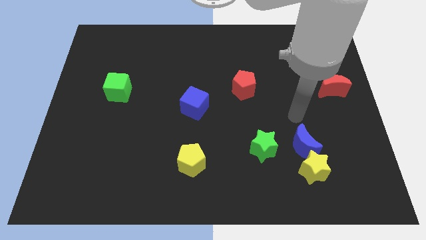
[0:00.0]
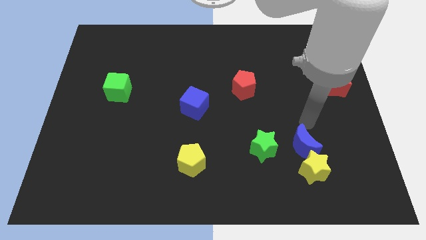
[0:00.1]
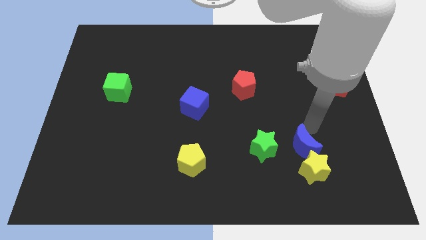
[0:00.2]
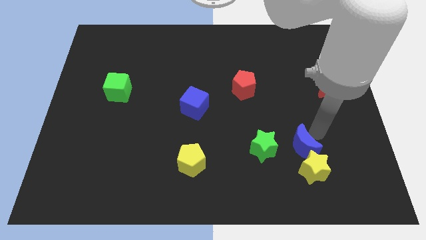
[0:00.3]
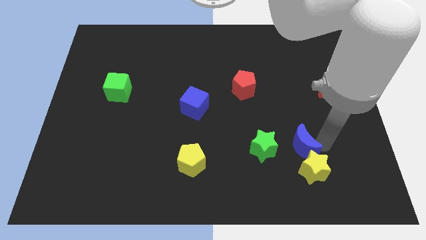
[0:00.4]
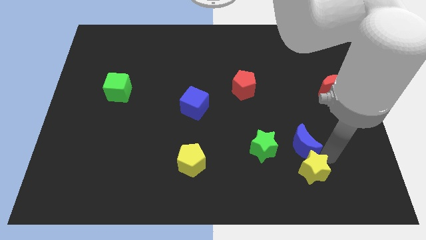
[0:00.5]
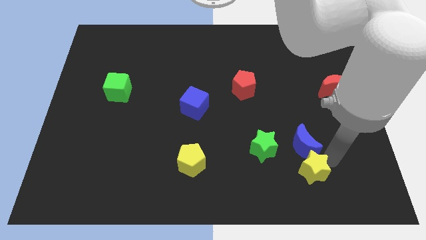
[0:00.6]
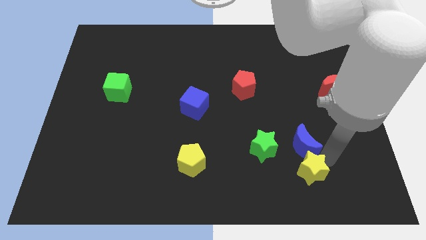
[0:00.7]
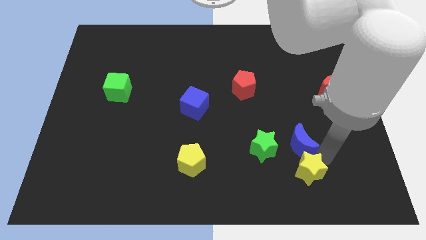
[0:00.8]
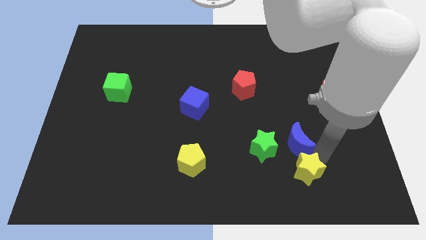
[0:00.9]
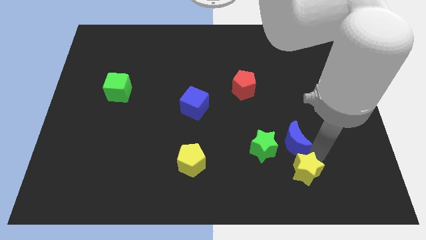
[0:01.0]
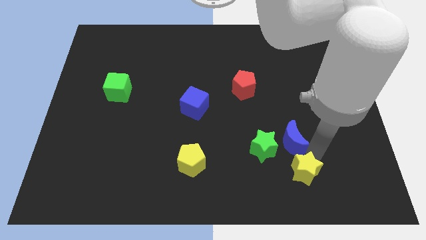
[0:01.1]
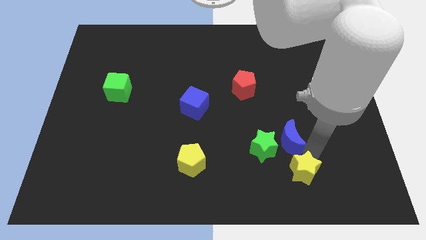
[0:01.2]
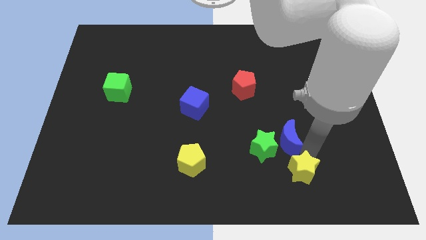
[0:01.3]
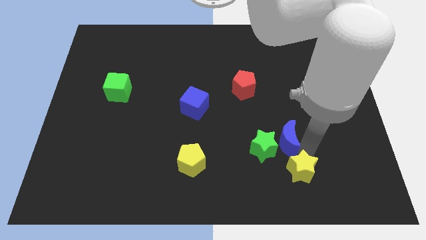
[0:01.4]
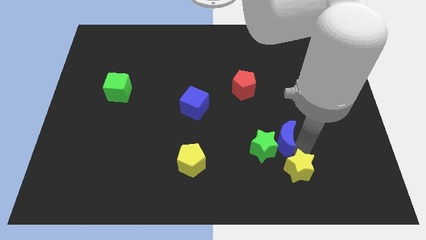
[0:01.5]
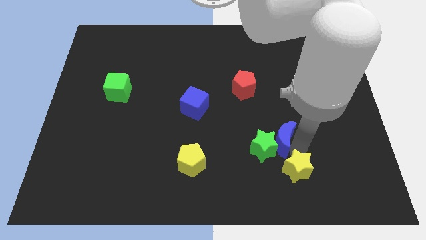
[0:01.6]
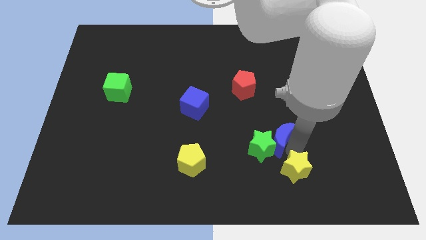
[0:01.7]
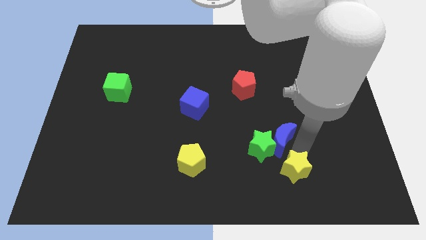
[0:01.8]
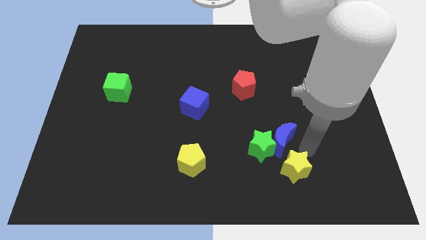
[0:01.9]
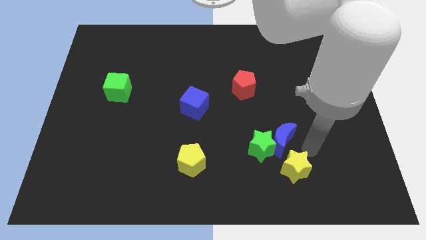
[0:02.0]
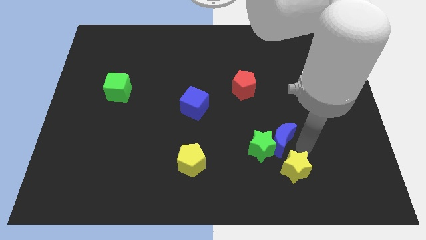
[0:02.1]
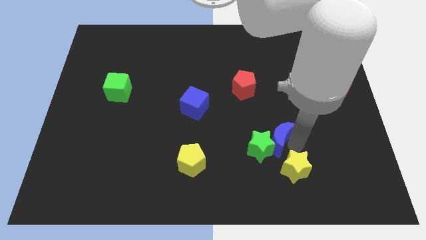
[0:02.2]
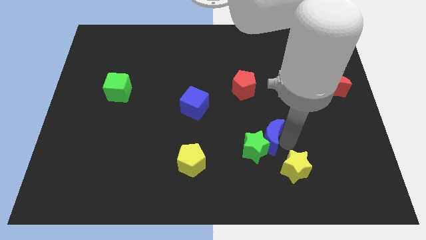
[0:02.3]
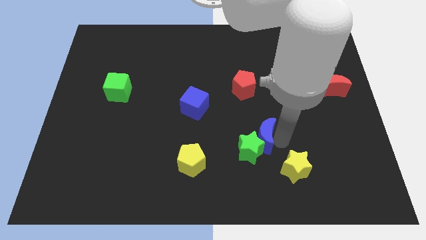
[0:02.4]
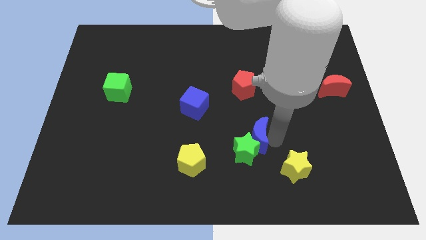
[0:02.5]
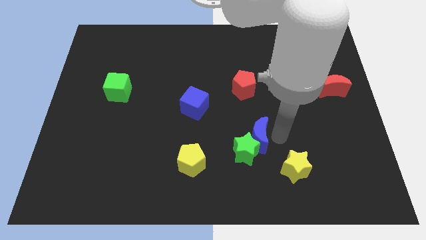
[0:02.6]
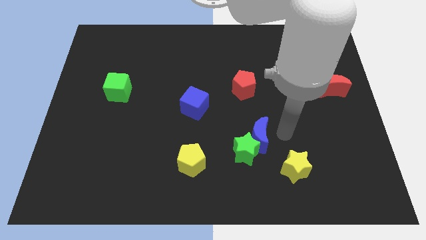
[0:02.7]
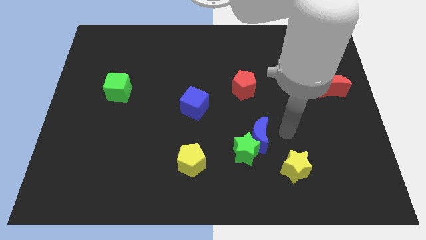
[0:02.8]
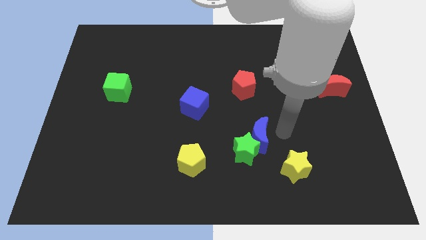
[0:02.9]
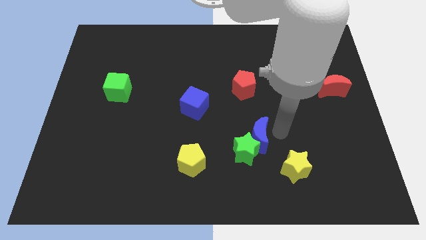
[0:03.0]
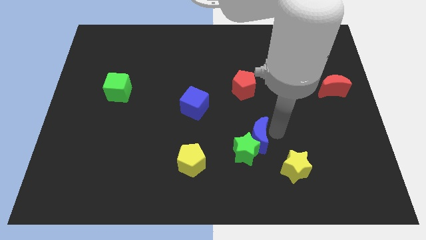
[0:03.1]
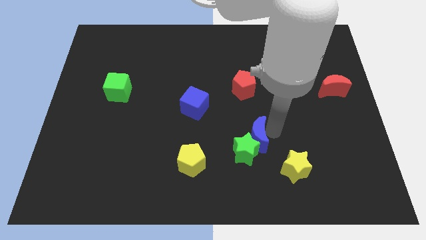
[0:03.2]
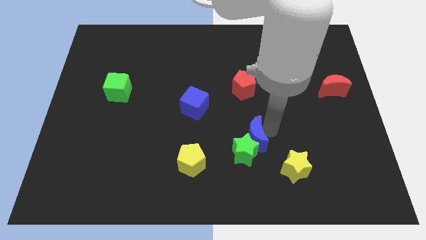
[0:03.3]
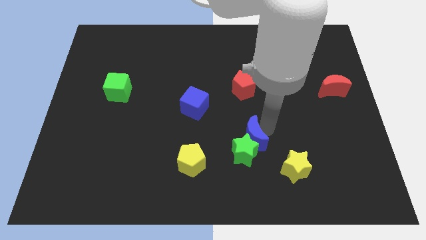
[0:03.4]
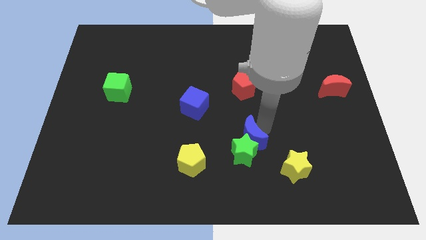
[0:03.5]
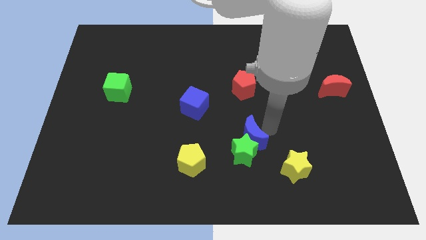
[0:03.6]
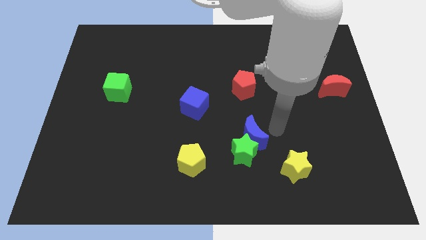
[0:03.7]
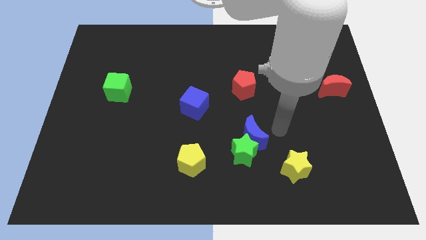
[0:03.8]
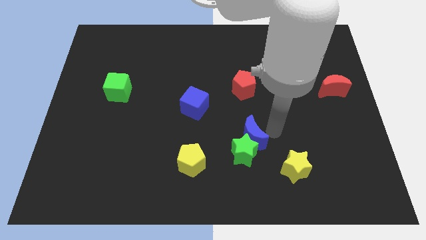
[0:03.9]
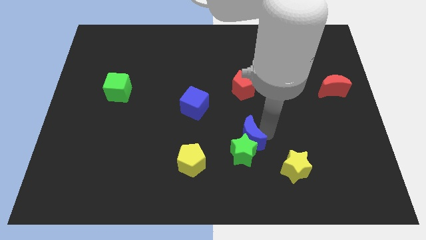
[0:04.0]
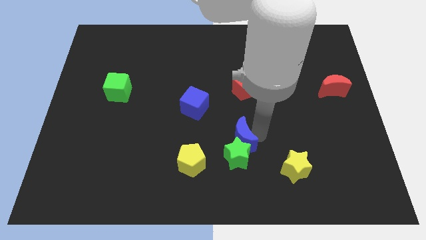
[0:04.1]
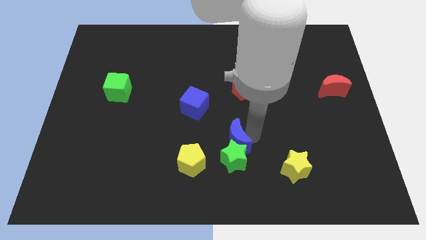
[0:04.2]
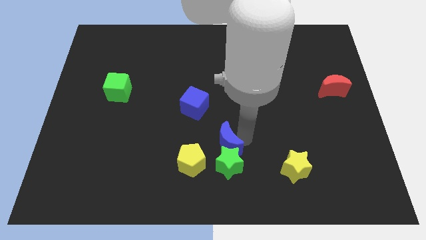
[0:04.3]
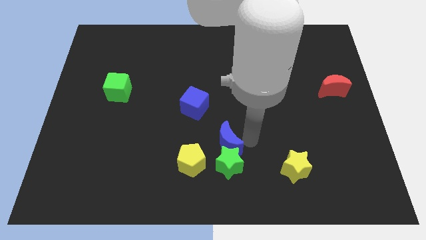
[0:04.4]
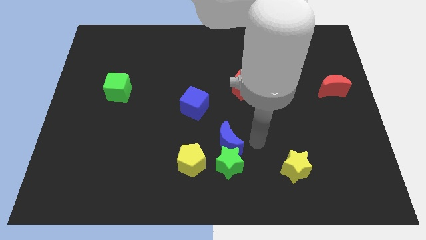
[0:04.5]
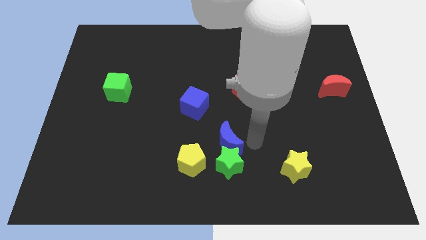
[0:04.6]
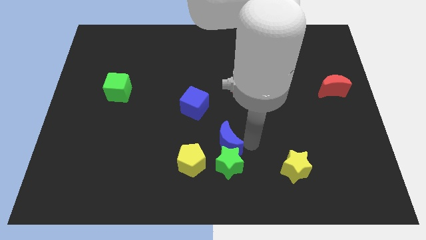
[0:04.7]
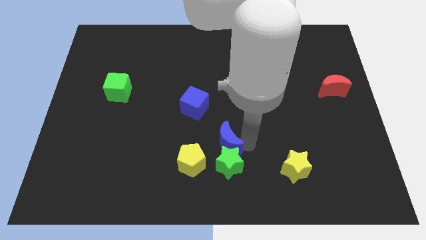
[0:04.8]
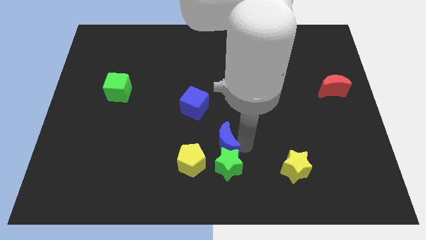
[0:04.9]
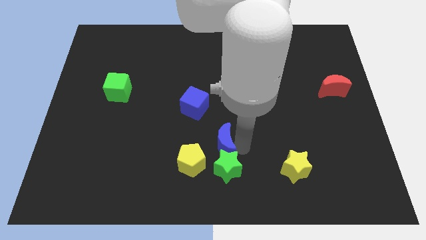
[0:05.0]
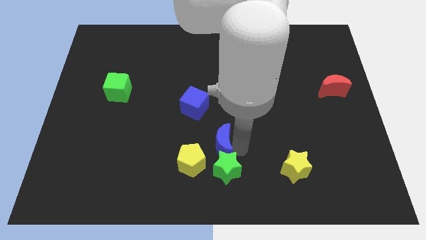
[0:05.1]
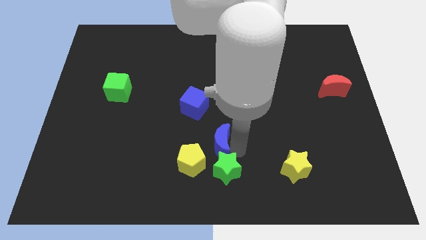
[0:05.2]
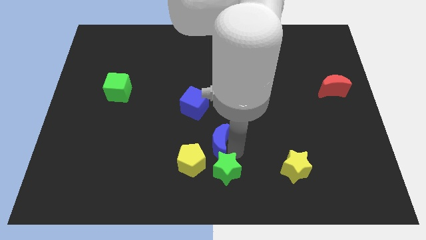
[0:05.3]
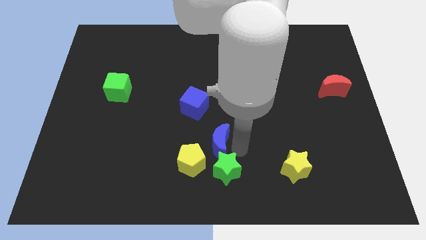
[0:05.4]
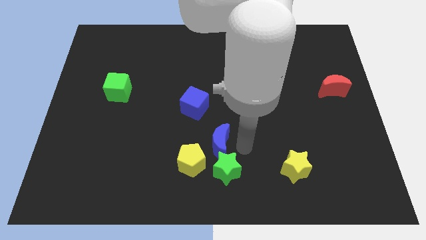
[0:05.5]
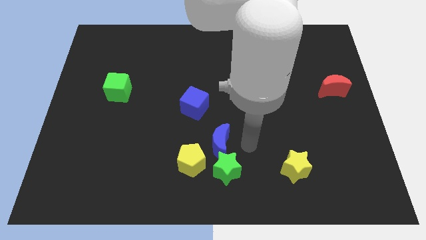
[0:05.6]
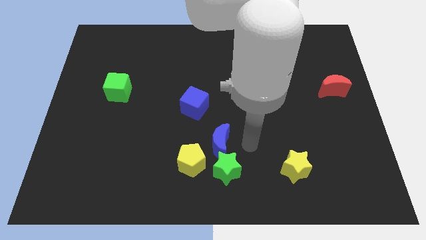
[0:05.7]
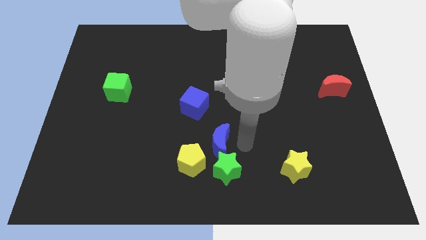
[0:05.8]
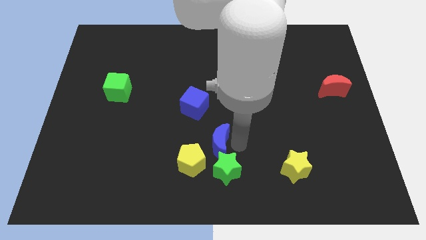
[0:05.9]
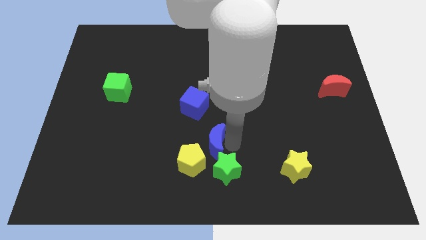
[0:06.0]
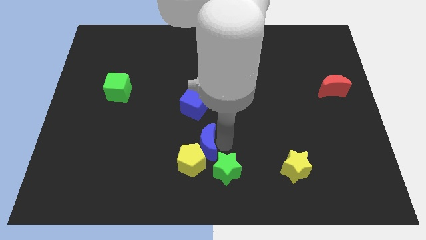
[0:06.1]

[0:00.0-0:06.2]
slide the blue moon left

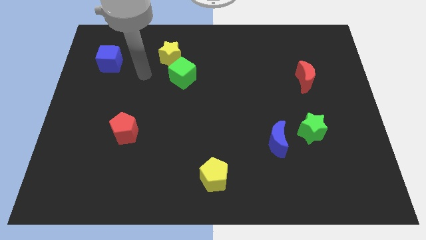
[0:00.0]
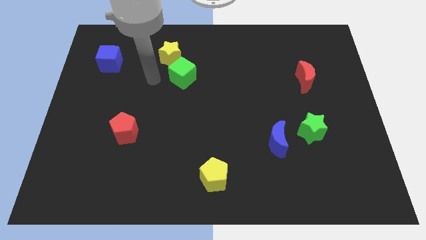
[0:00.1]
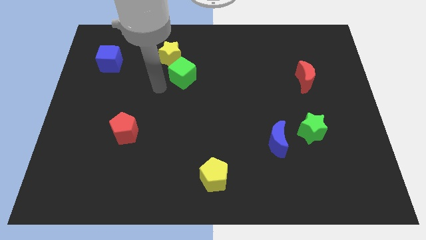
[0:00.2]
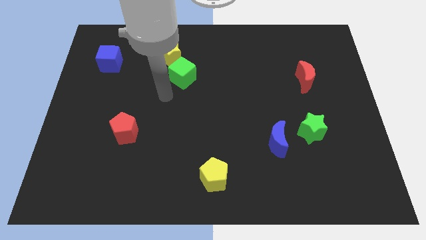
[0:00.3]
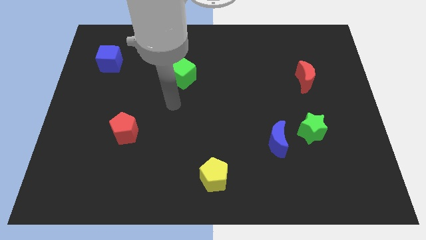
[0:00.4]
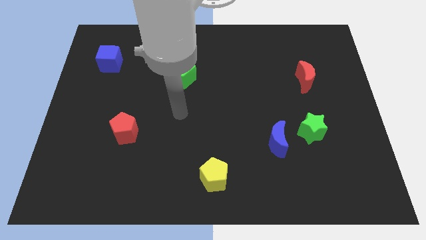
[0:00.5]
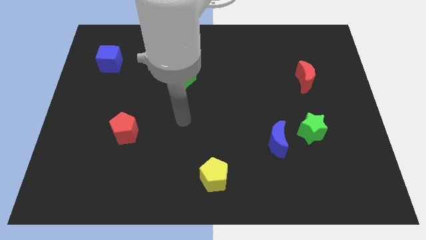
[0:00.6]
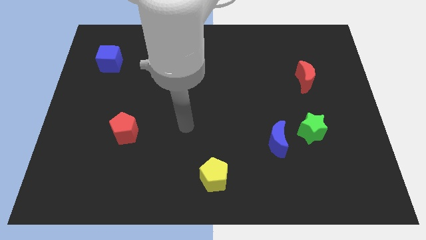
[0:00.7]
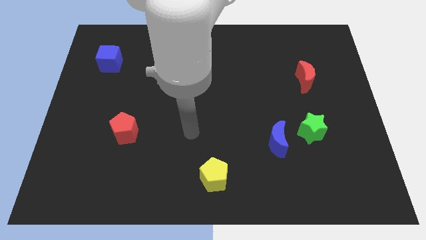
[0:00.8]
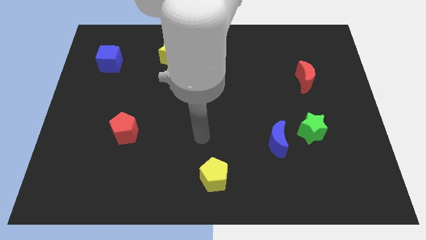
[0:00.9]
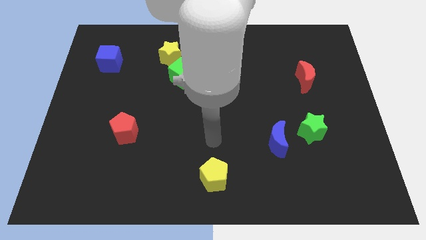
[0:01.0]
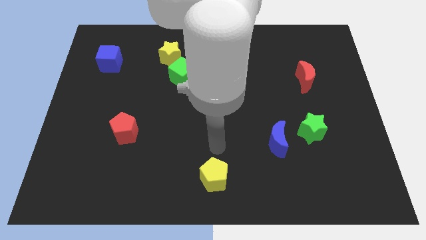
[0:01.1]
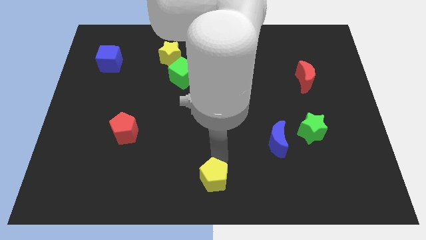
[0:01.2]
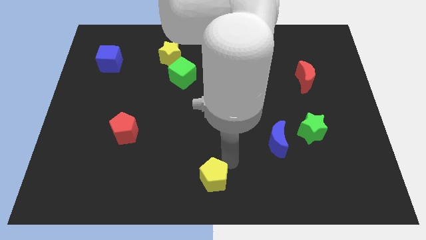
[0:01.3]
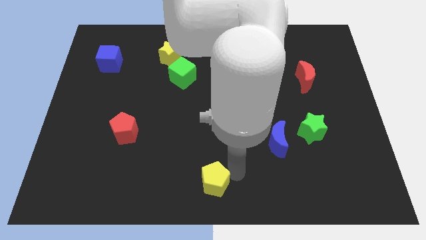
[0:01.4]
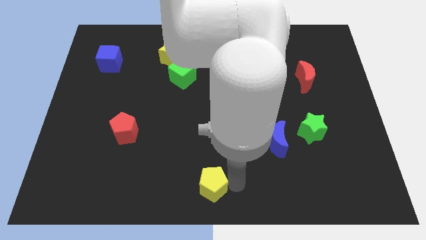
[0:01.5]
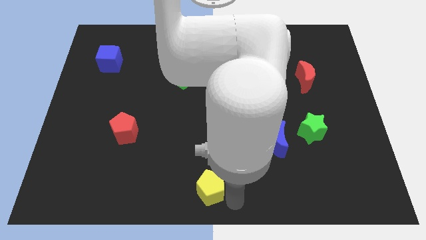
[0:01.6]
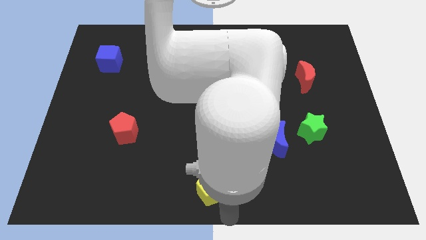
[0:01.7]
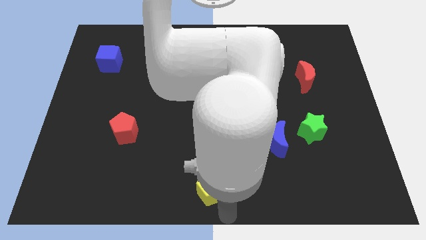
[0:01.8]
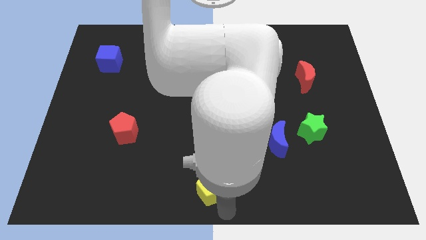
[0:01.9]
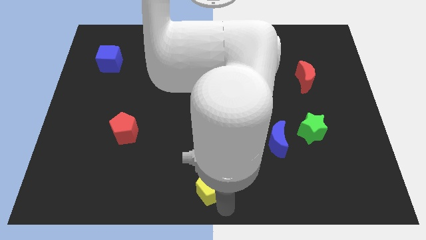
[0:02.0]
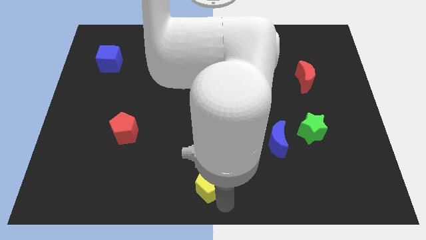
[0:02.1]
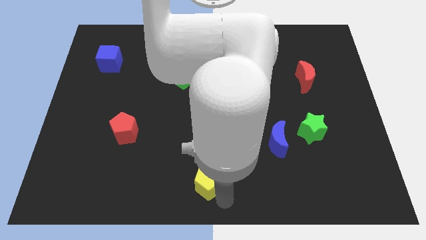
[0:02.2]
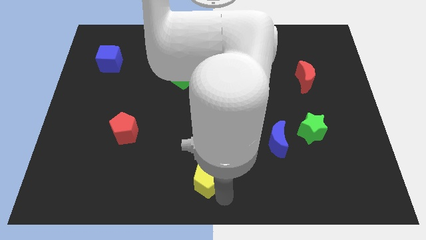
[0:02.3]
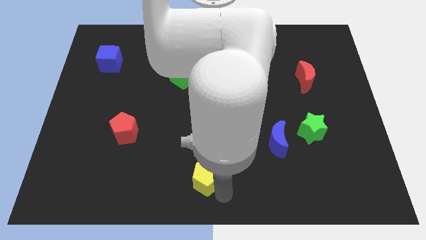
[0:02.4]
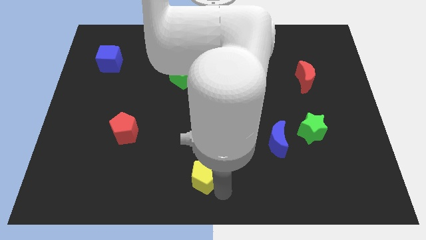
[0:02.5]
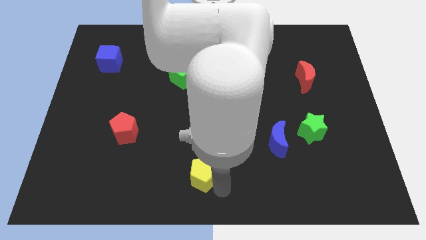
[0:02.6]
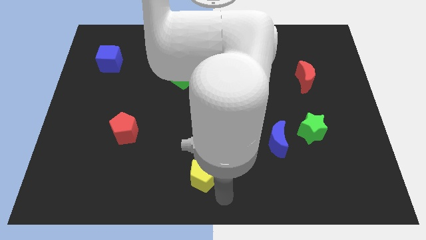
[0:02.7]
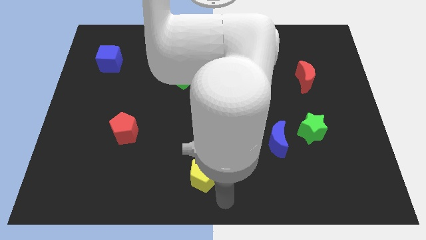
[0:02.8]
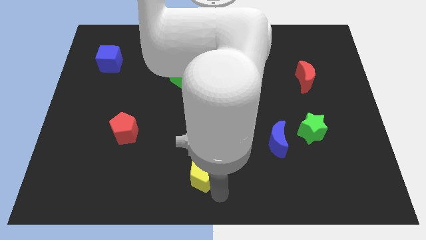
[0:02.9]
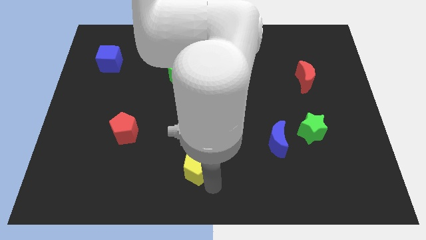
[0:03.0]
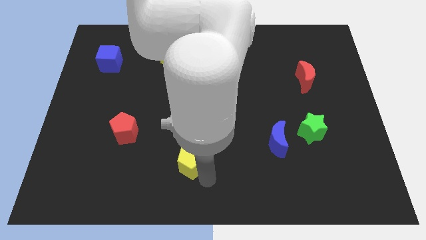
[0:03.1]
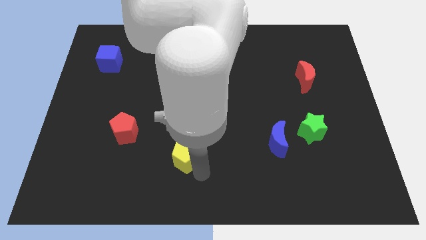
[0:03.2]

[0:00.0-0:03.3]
slightly push the yellow pentagon upwards and left diagonally
